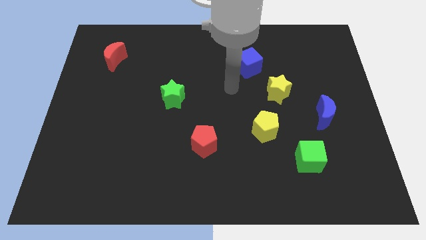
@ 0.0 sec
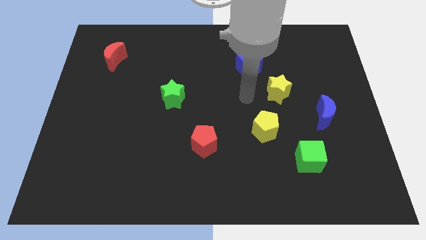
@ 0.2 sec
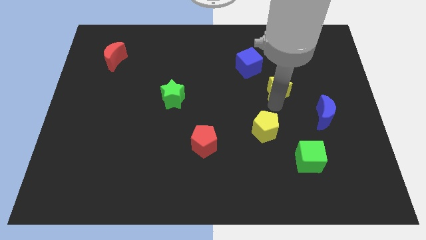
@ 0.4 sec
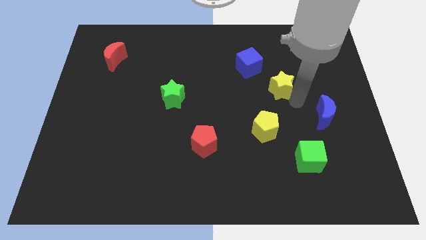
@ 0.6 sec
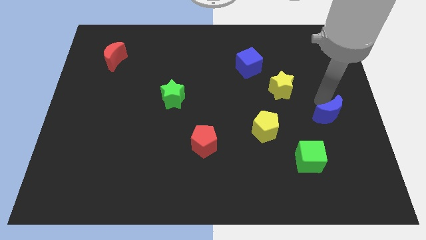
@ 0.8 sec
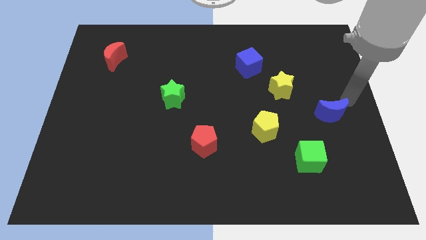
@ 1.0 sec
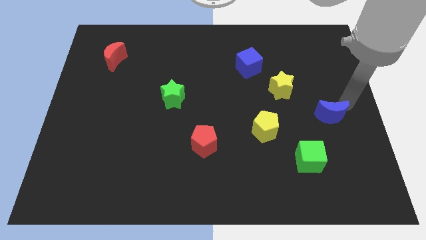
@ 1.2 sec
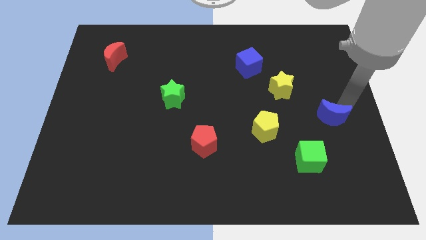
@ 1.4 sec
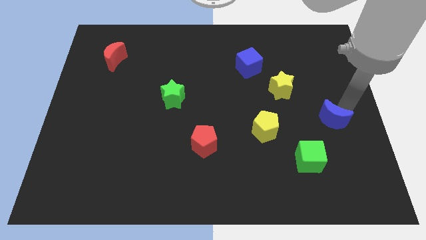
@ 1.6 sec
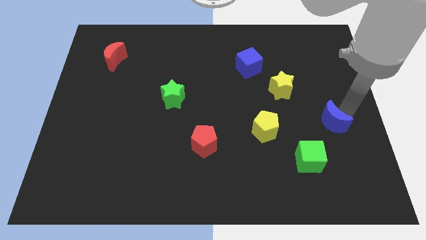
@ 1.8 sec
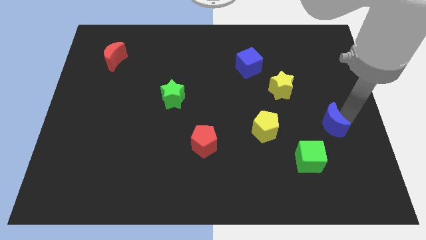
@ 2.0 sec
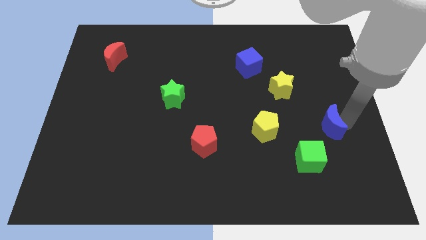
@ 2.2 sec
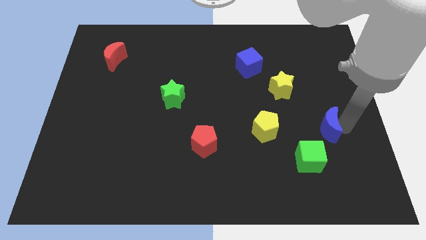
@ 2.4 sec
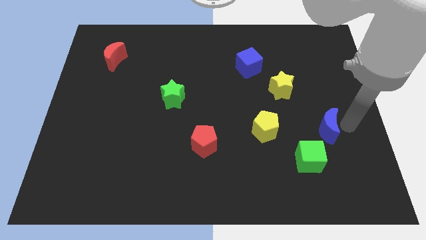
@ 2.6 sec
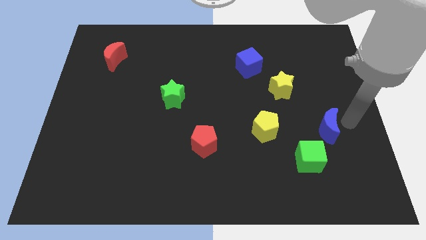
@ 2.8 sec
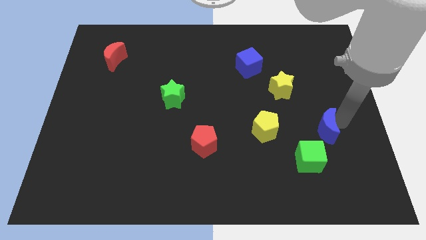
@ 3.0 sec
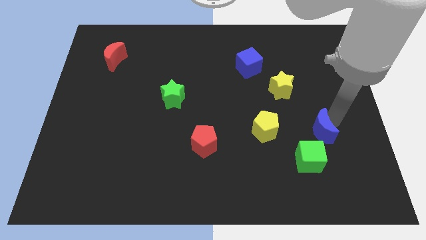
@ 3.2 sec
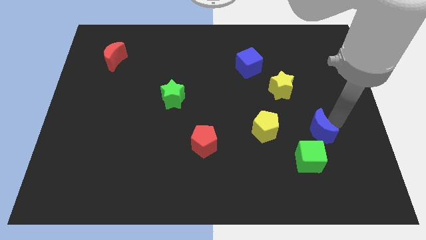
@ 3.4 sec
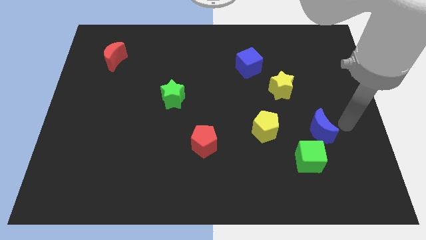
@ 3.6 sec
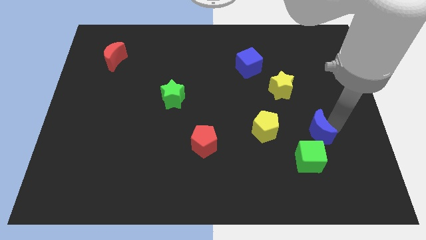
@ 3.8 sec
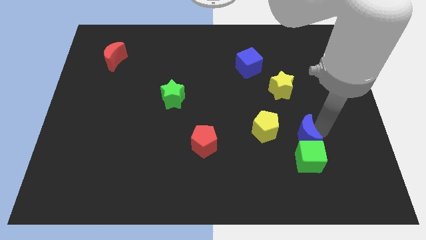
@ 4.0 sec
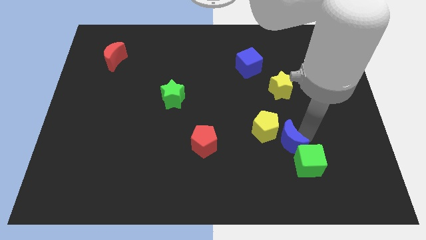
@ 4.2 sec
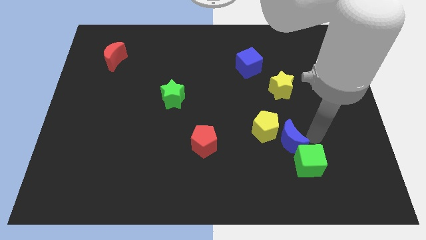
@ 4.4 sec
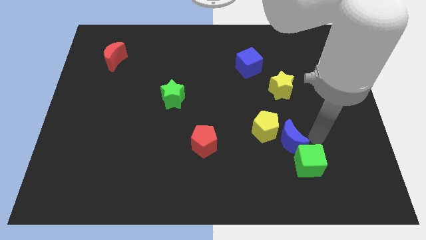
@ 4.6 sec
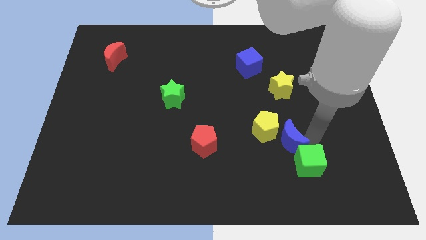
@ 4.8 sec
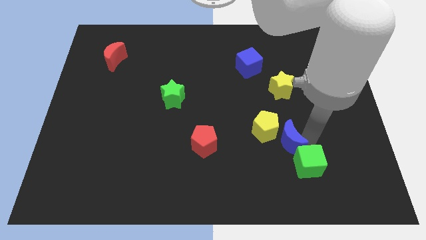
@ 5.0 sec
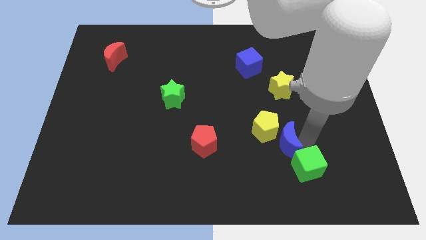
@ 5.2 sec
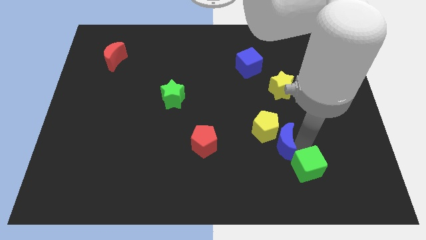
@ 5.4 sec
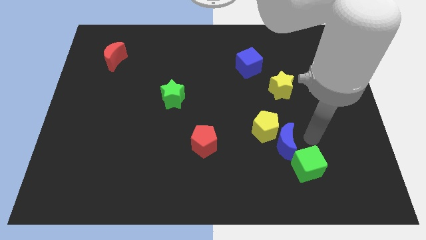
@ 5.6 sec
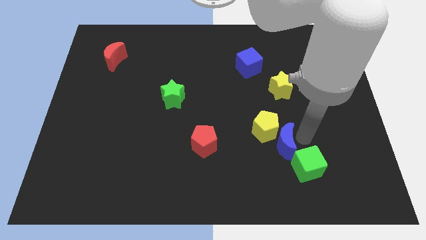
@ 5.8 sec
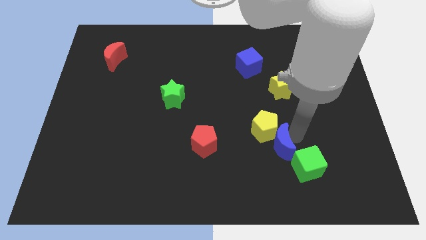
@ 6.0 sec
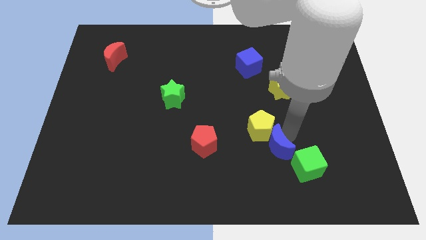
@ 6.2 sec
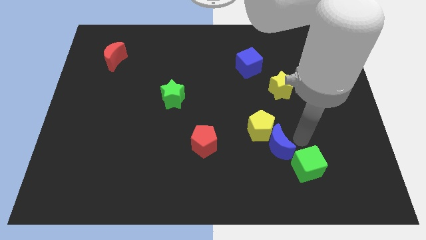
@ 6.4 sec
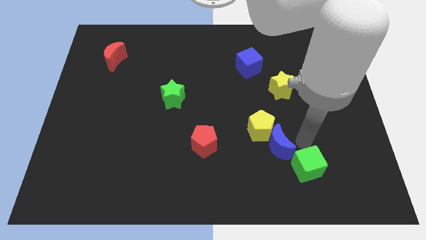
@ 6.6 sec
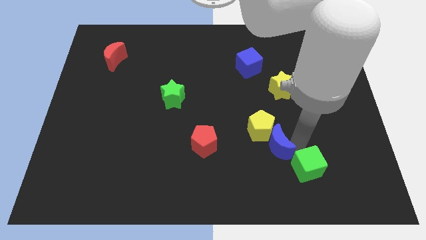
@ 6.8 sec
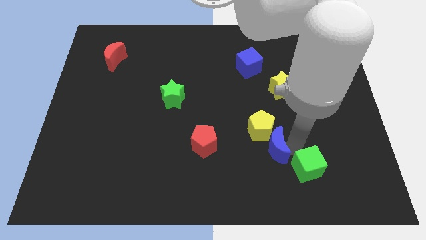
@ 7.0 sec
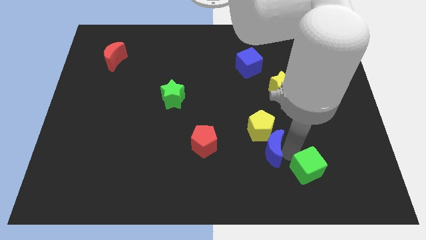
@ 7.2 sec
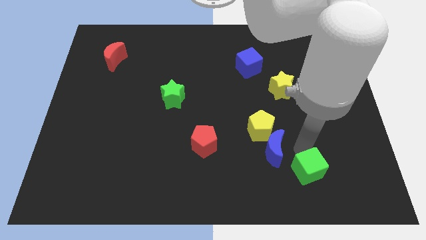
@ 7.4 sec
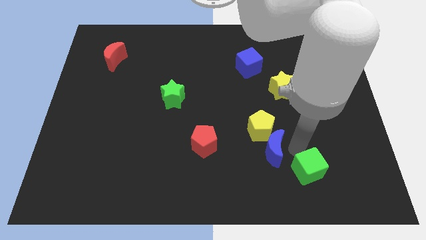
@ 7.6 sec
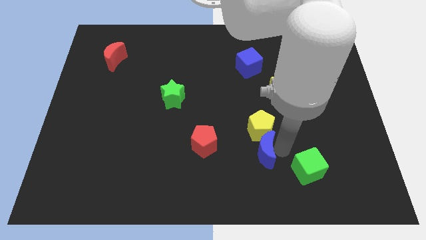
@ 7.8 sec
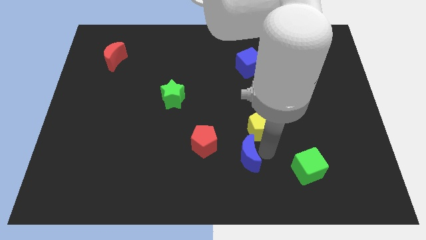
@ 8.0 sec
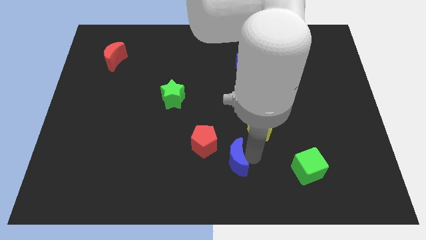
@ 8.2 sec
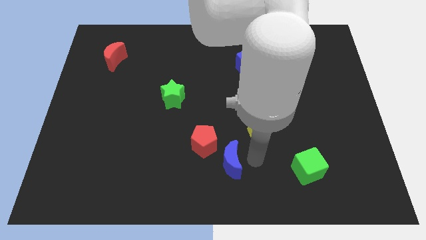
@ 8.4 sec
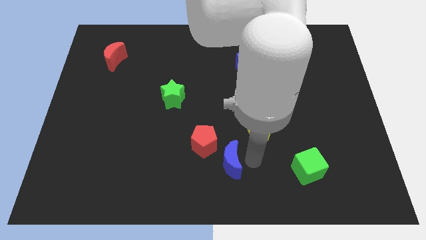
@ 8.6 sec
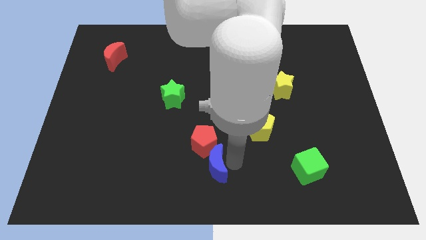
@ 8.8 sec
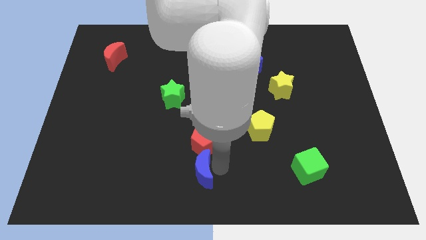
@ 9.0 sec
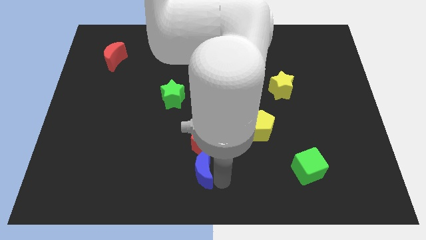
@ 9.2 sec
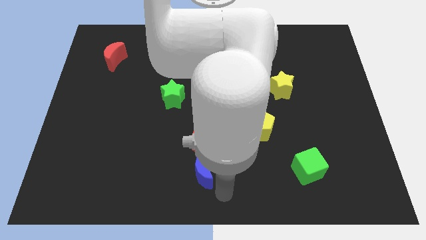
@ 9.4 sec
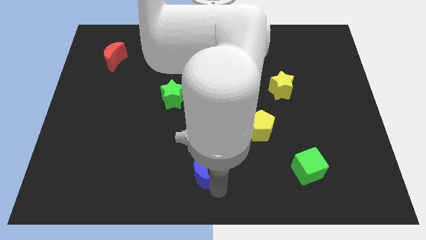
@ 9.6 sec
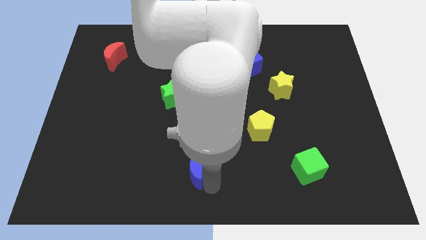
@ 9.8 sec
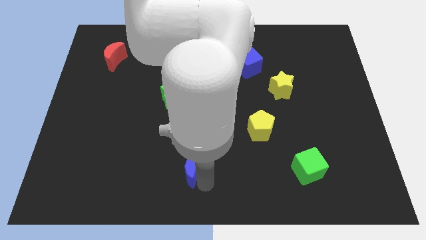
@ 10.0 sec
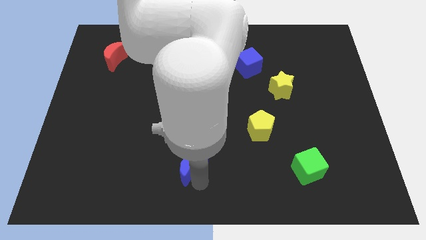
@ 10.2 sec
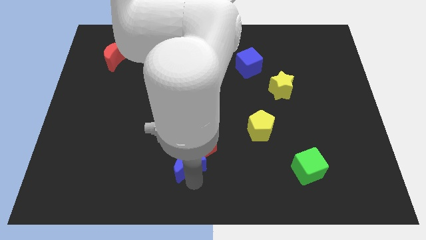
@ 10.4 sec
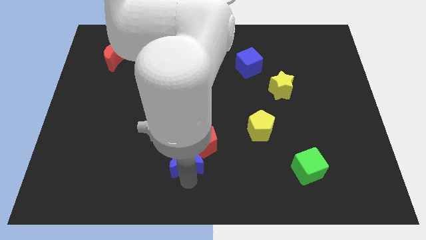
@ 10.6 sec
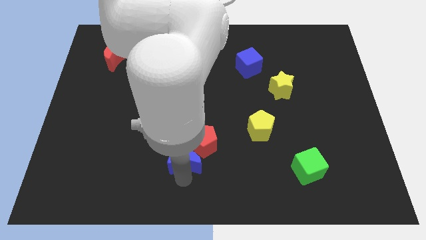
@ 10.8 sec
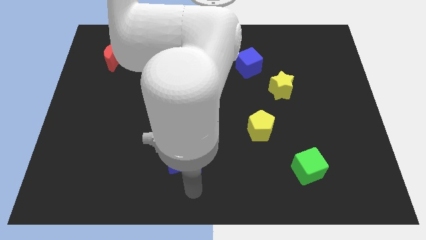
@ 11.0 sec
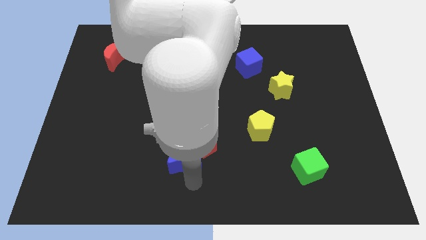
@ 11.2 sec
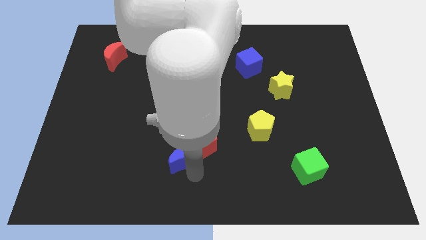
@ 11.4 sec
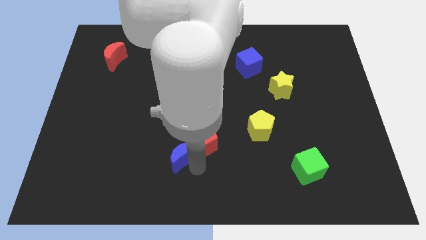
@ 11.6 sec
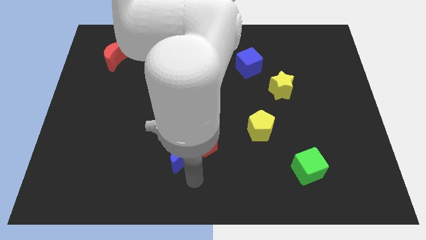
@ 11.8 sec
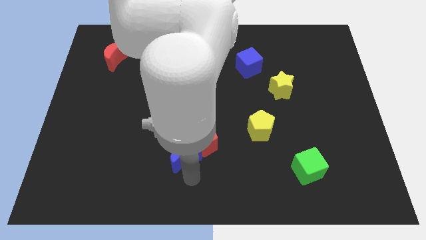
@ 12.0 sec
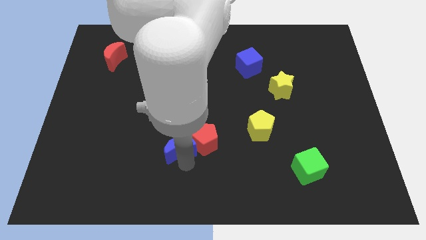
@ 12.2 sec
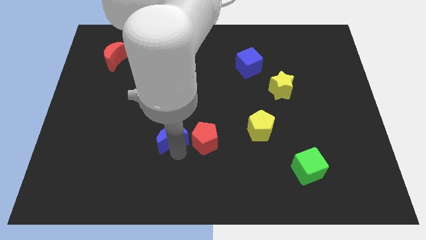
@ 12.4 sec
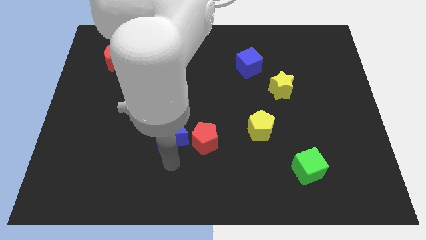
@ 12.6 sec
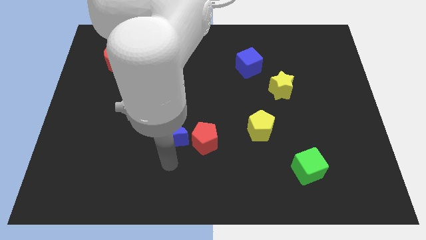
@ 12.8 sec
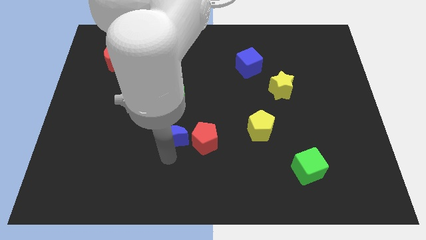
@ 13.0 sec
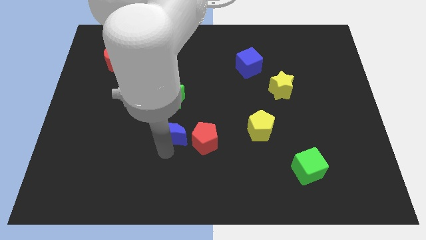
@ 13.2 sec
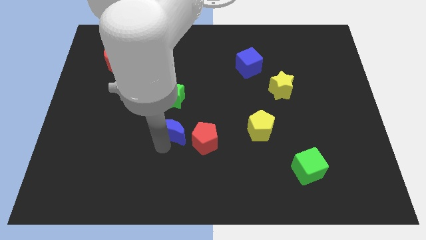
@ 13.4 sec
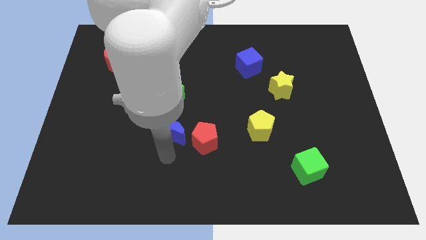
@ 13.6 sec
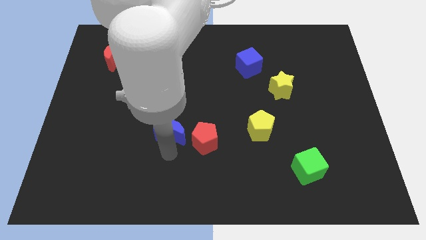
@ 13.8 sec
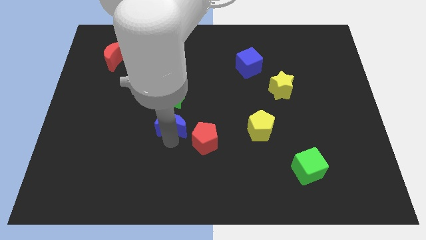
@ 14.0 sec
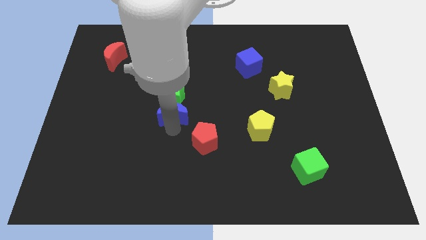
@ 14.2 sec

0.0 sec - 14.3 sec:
move the blue moon next to the green star

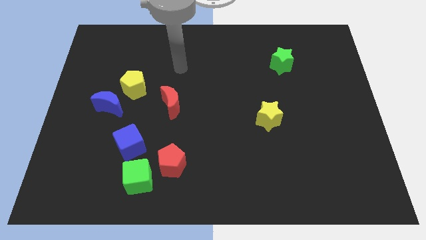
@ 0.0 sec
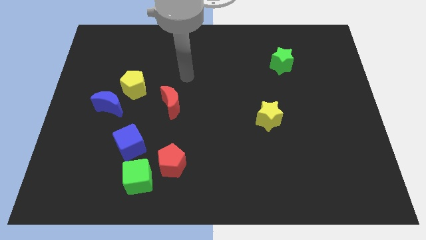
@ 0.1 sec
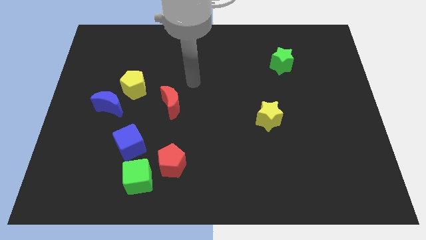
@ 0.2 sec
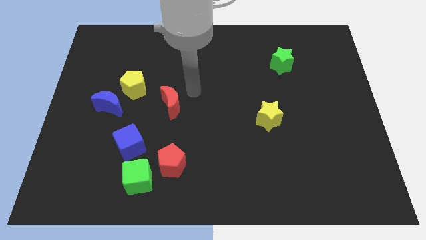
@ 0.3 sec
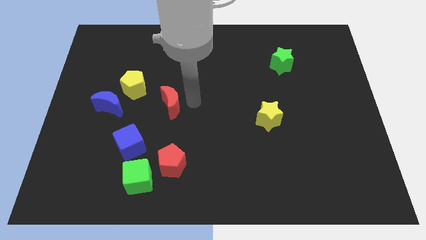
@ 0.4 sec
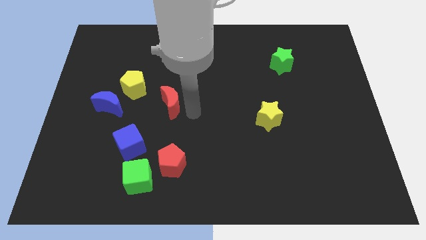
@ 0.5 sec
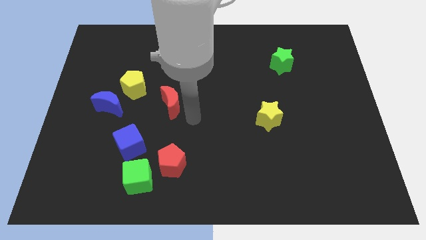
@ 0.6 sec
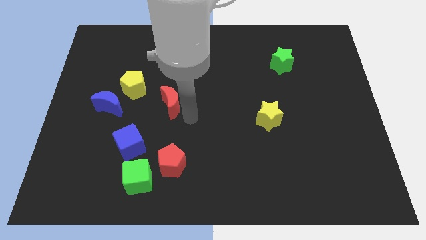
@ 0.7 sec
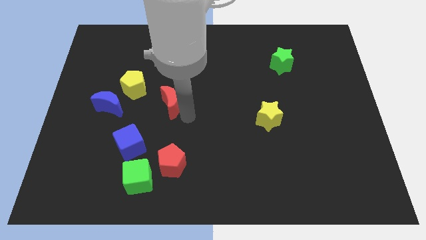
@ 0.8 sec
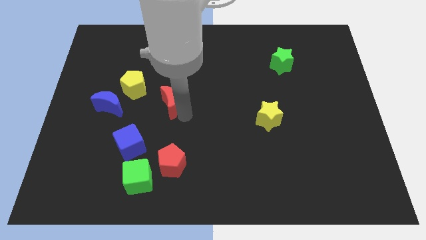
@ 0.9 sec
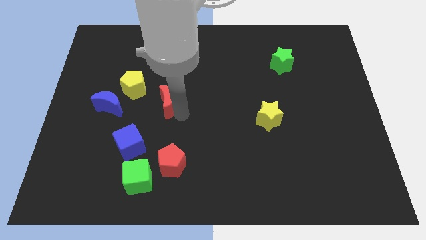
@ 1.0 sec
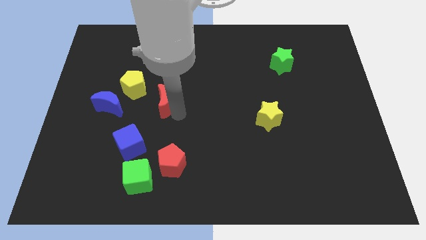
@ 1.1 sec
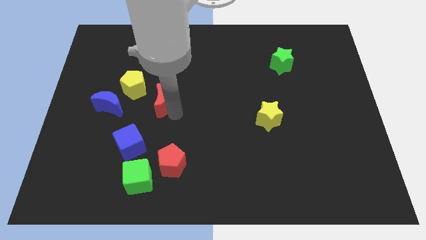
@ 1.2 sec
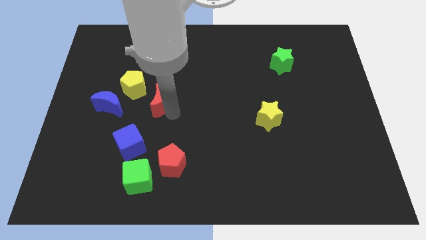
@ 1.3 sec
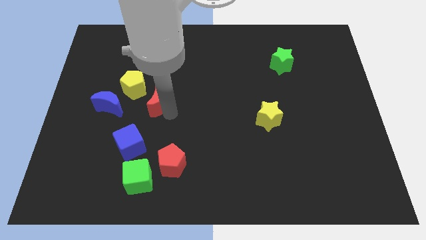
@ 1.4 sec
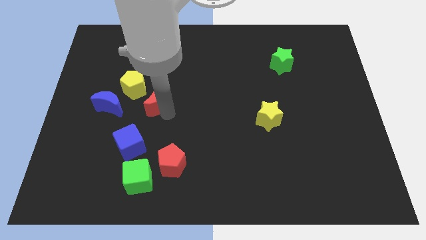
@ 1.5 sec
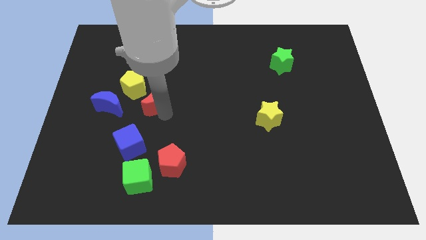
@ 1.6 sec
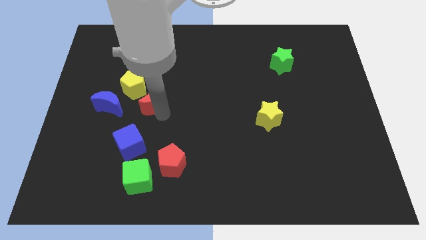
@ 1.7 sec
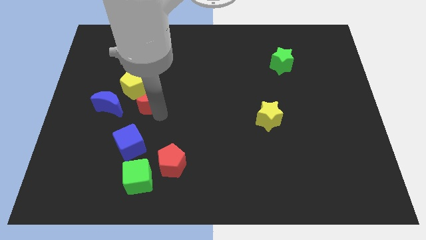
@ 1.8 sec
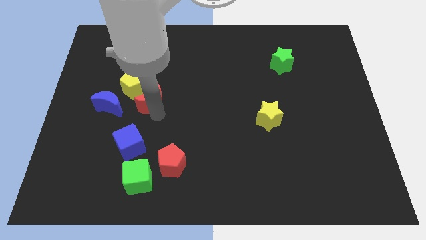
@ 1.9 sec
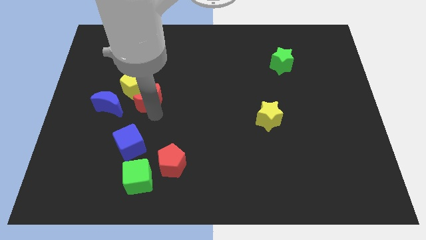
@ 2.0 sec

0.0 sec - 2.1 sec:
put the red moon close to the yellow pentagon
